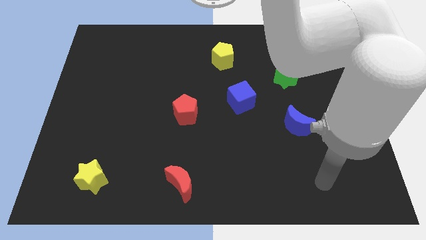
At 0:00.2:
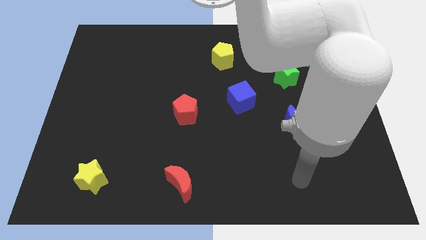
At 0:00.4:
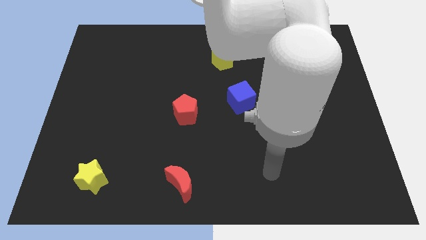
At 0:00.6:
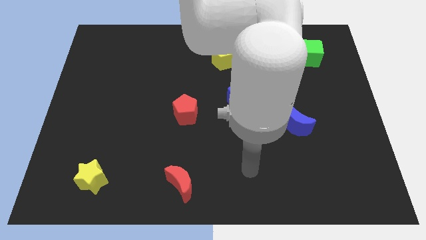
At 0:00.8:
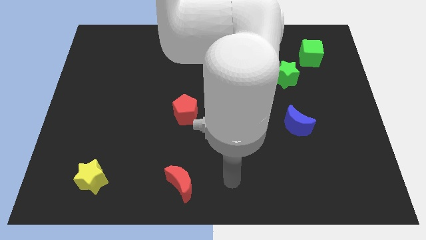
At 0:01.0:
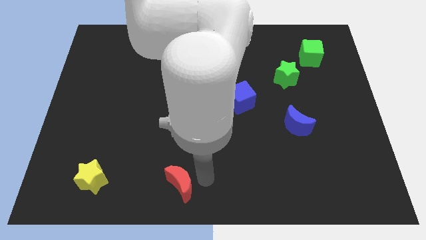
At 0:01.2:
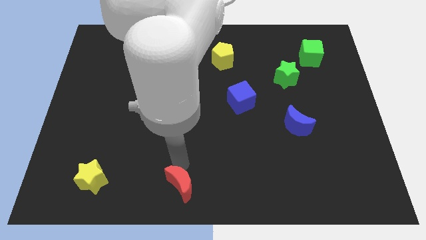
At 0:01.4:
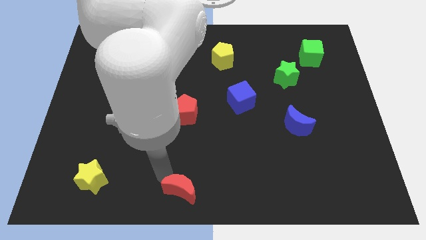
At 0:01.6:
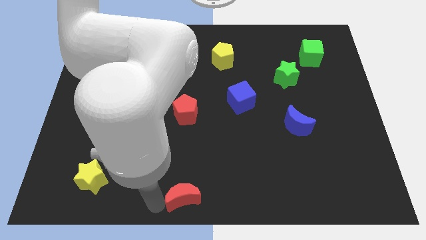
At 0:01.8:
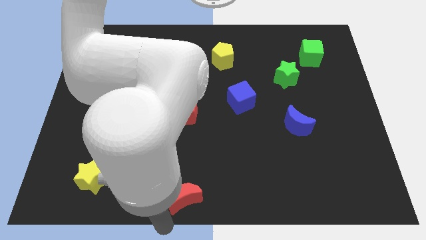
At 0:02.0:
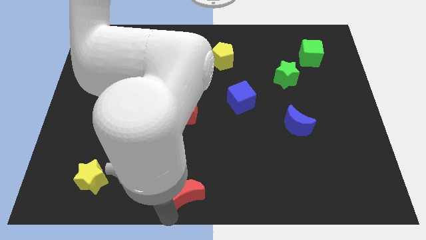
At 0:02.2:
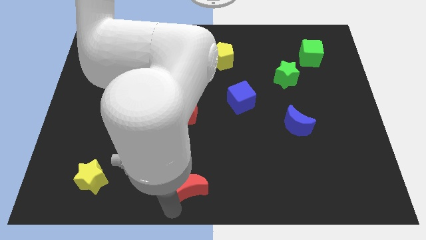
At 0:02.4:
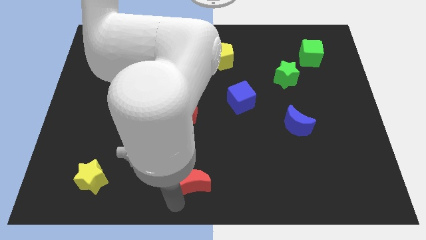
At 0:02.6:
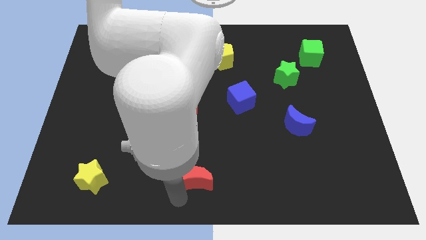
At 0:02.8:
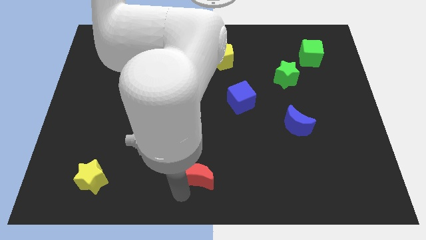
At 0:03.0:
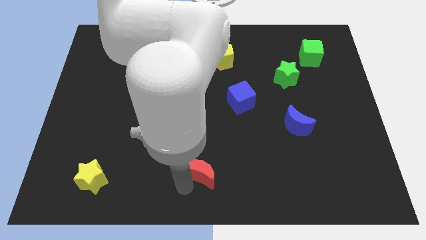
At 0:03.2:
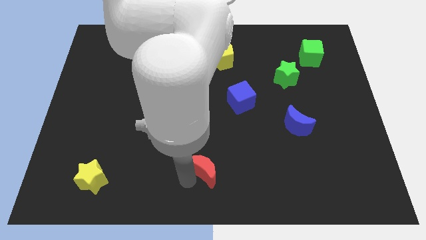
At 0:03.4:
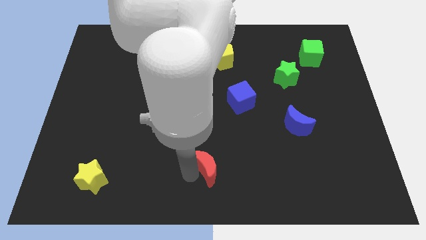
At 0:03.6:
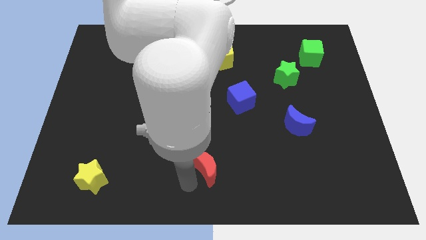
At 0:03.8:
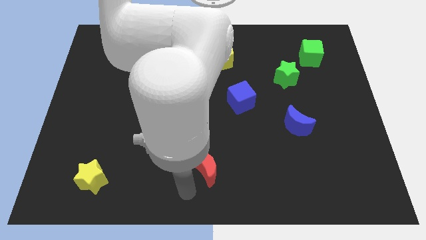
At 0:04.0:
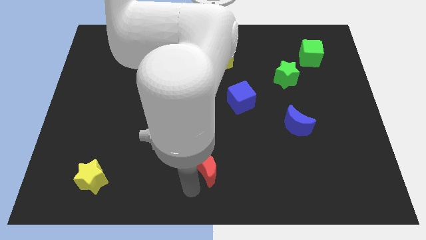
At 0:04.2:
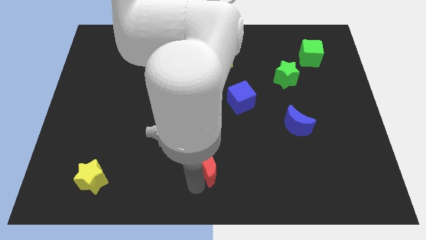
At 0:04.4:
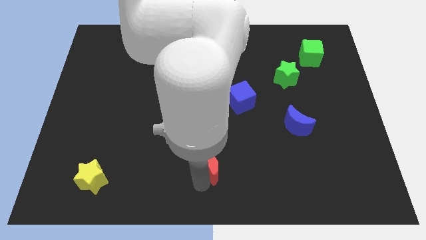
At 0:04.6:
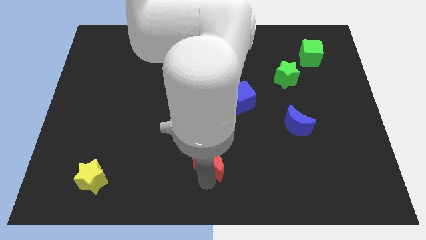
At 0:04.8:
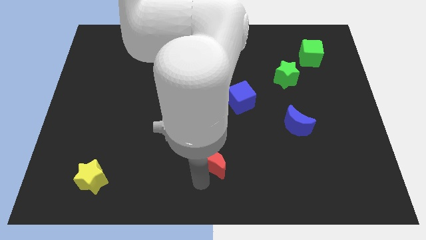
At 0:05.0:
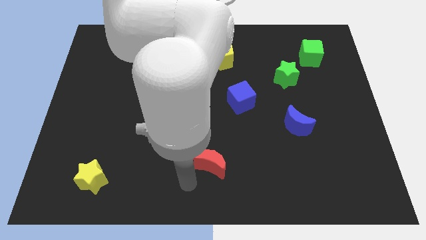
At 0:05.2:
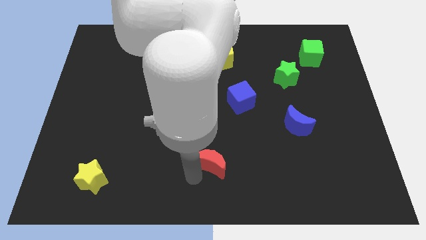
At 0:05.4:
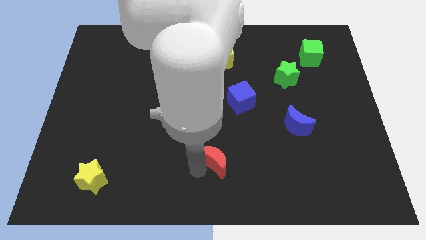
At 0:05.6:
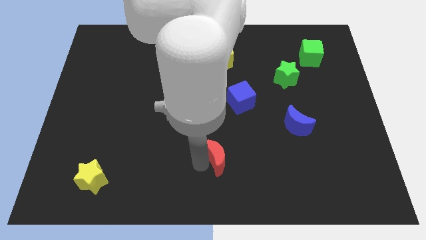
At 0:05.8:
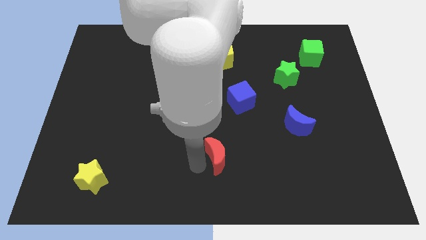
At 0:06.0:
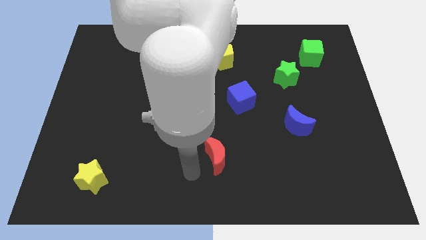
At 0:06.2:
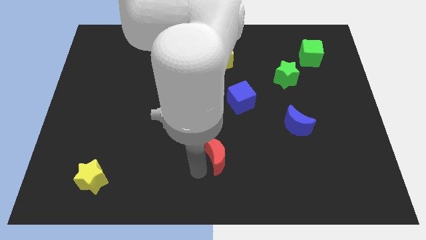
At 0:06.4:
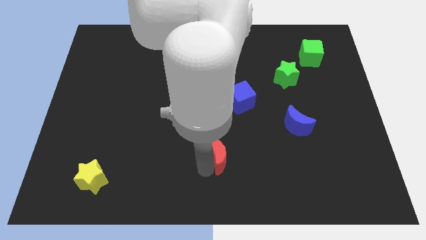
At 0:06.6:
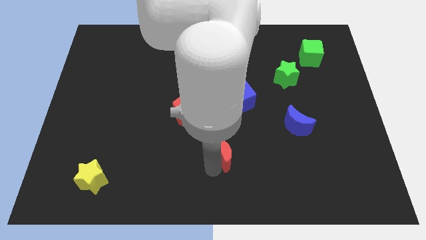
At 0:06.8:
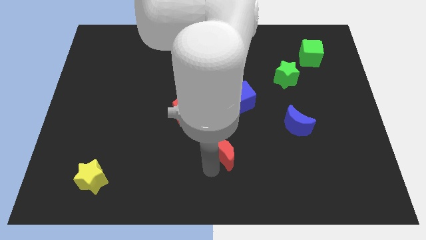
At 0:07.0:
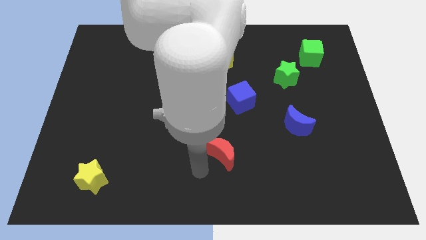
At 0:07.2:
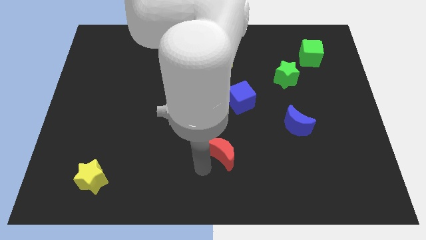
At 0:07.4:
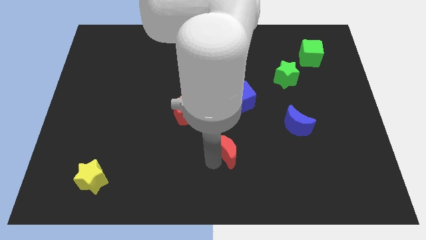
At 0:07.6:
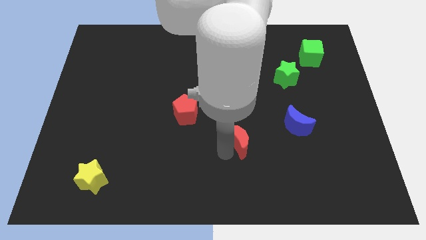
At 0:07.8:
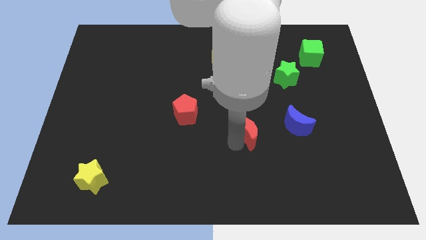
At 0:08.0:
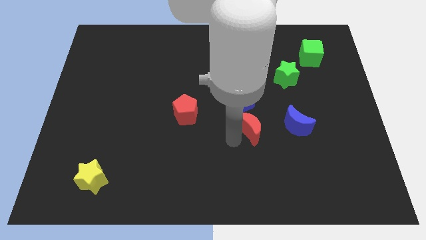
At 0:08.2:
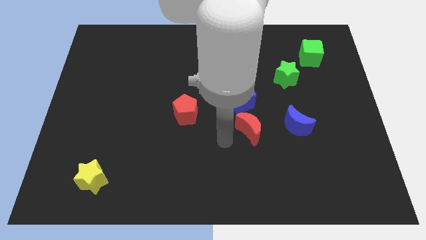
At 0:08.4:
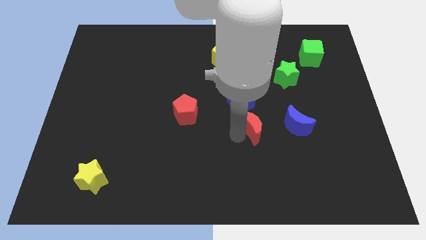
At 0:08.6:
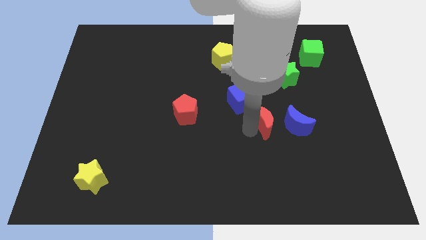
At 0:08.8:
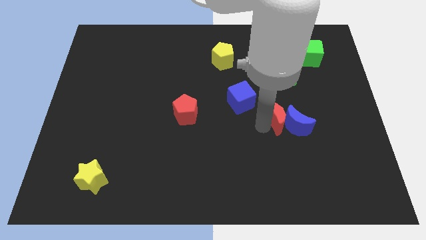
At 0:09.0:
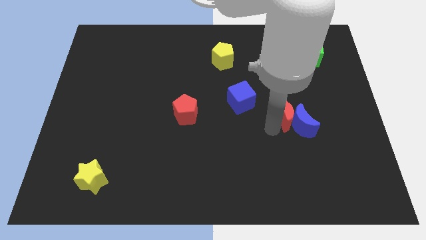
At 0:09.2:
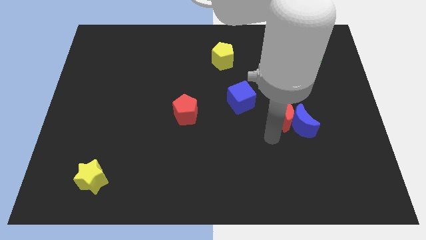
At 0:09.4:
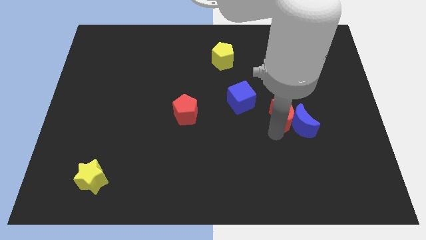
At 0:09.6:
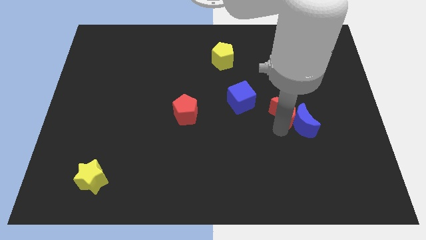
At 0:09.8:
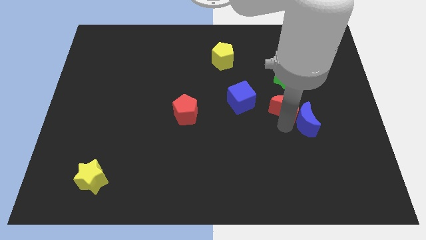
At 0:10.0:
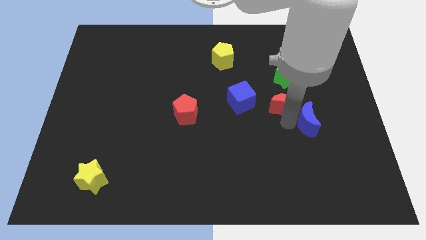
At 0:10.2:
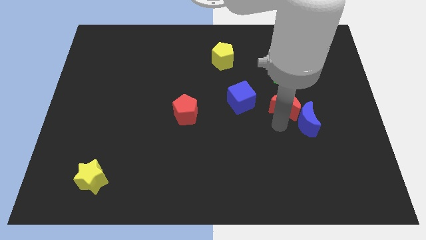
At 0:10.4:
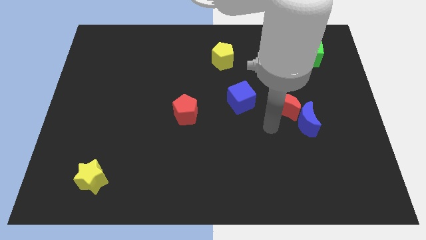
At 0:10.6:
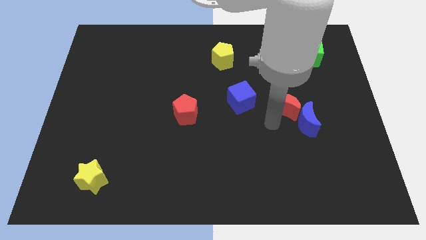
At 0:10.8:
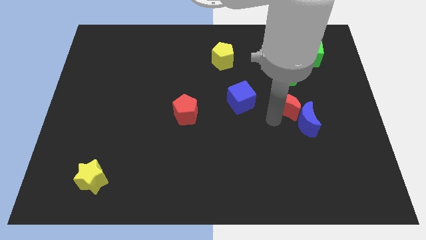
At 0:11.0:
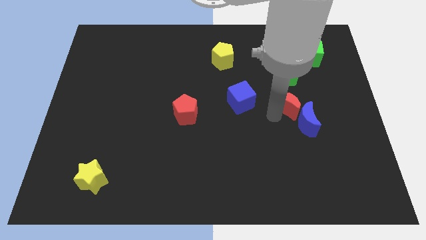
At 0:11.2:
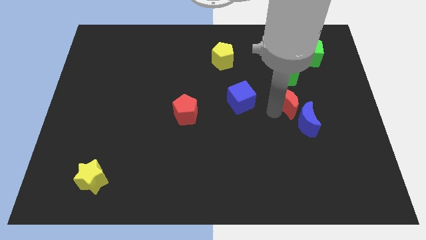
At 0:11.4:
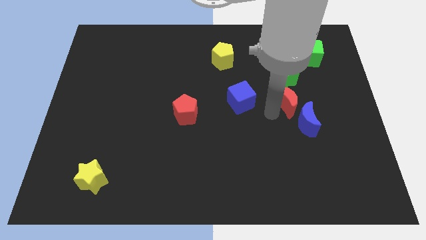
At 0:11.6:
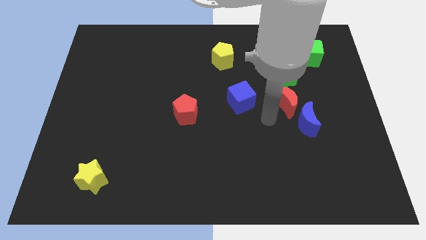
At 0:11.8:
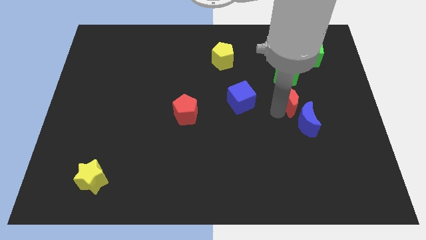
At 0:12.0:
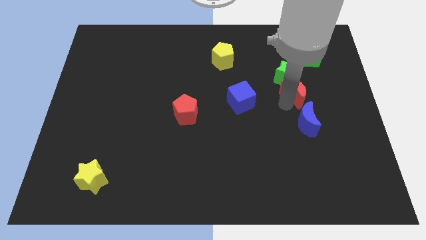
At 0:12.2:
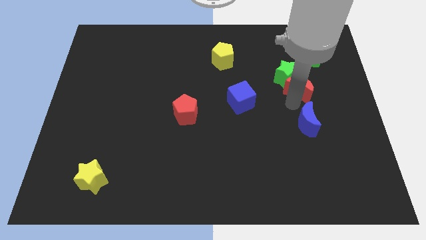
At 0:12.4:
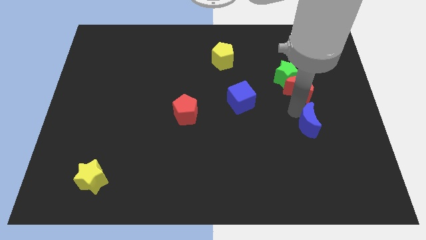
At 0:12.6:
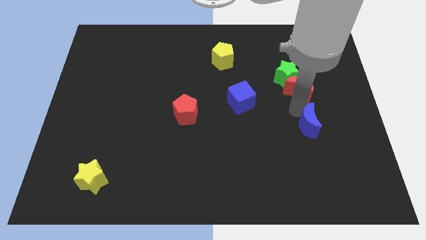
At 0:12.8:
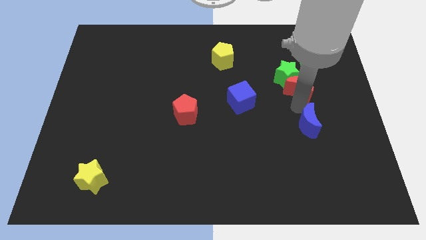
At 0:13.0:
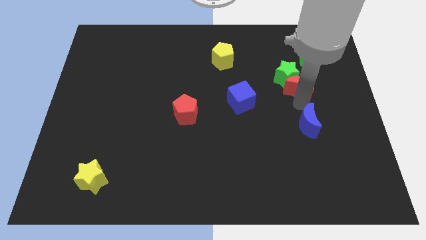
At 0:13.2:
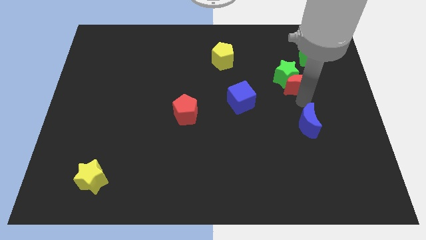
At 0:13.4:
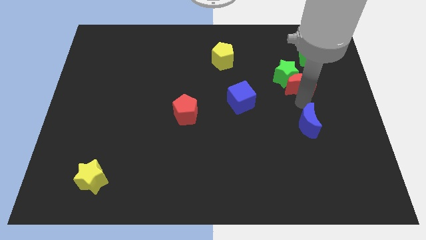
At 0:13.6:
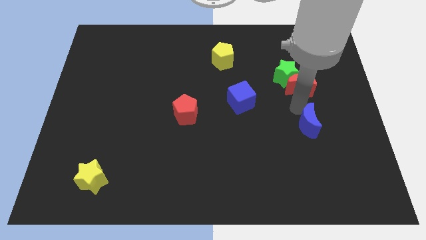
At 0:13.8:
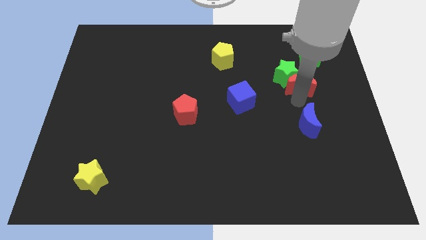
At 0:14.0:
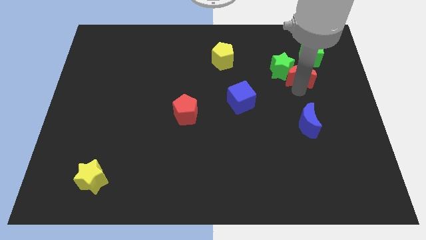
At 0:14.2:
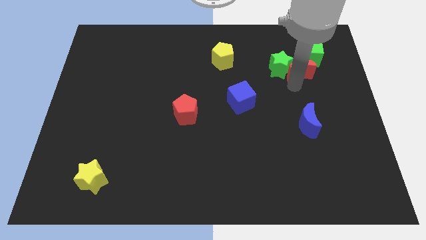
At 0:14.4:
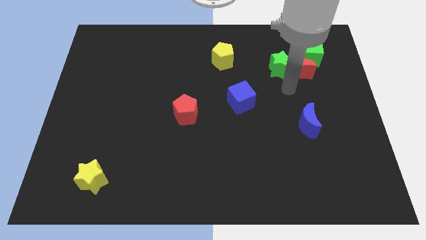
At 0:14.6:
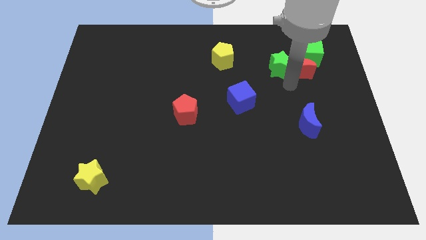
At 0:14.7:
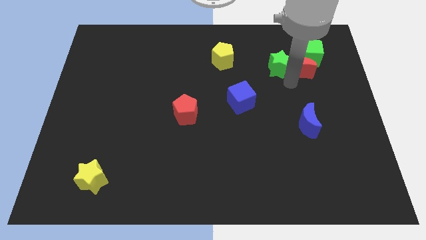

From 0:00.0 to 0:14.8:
slide the red moon next to the green cube
